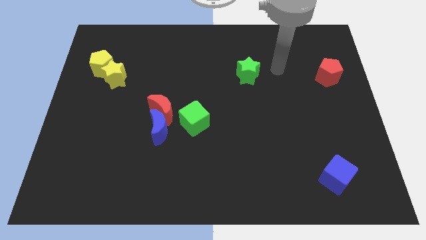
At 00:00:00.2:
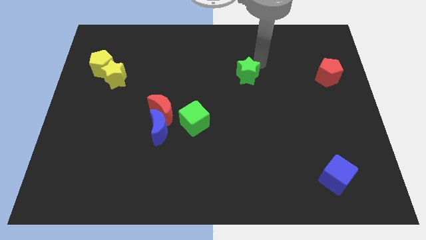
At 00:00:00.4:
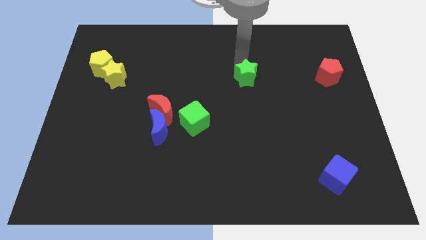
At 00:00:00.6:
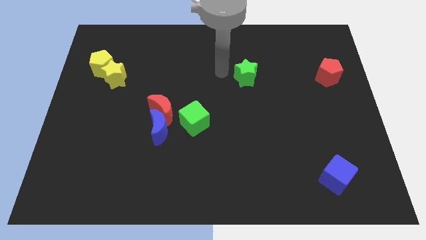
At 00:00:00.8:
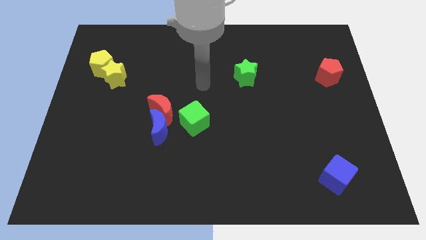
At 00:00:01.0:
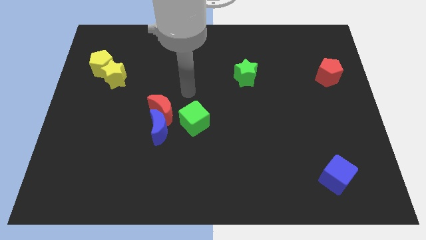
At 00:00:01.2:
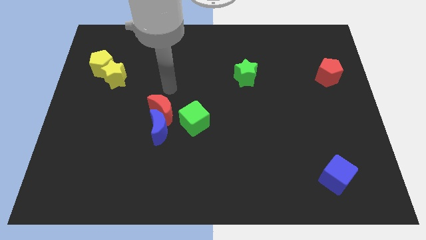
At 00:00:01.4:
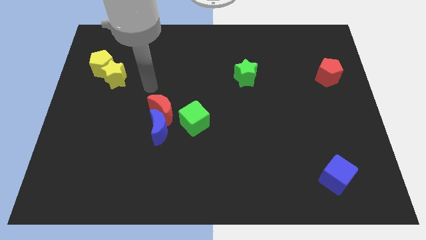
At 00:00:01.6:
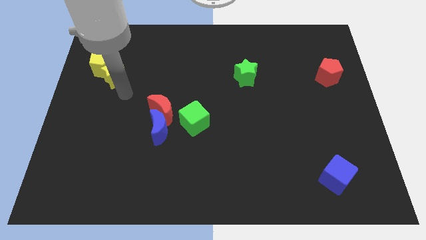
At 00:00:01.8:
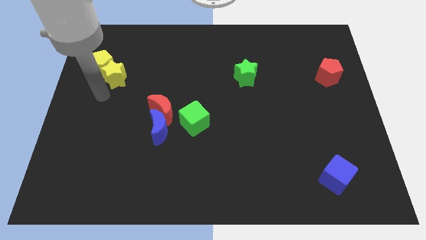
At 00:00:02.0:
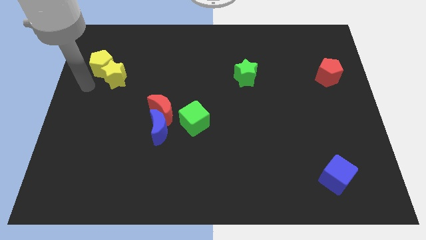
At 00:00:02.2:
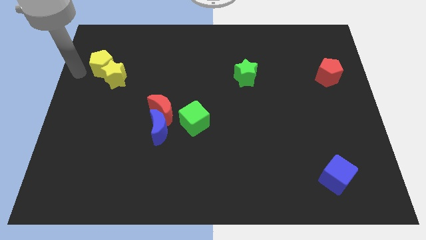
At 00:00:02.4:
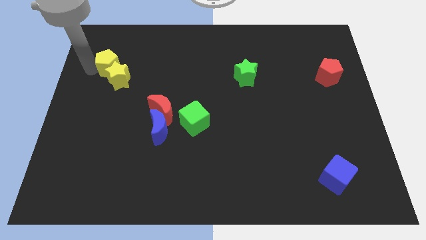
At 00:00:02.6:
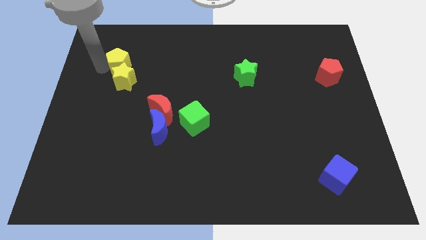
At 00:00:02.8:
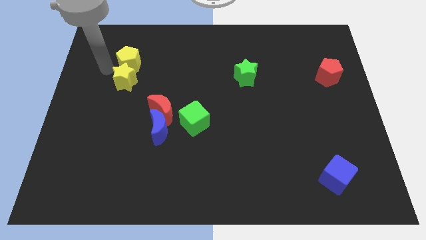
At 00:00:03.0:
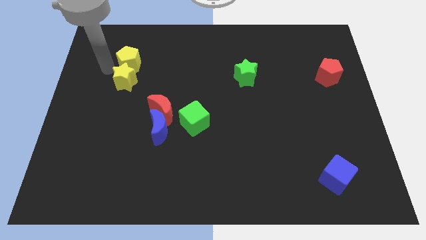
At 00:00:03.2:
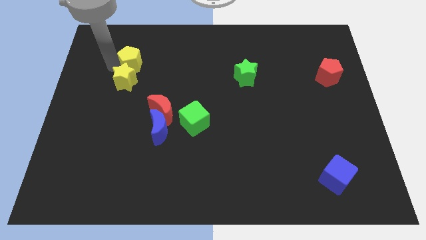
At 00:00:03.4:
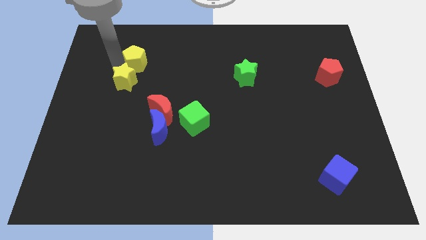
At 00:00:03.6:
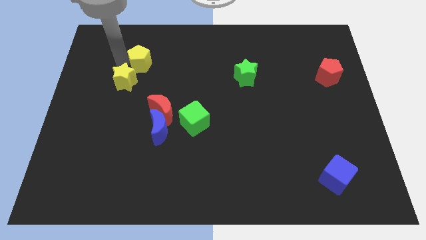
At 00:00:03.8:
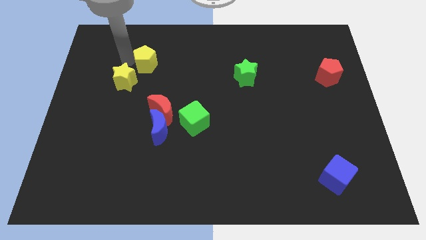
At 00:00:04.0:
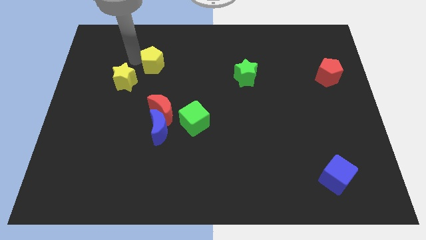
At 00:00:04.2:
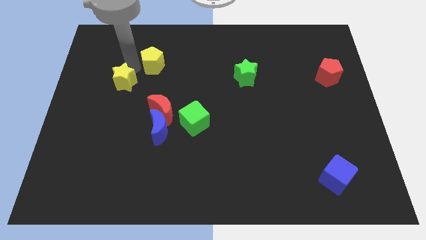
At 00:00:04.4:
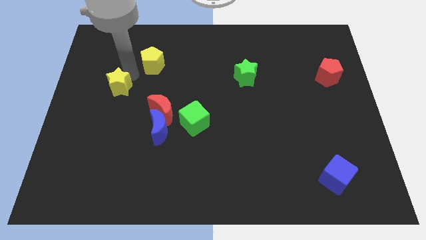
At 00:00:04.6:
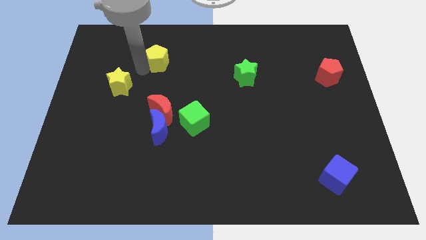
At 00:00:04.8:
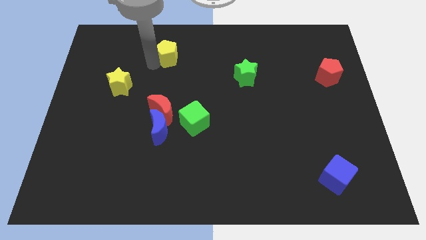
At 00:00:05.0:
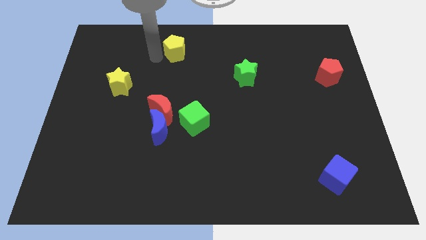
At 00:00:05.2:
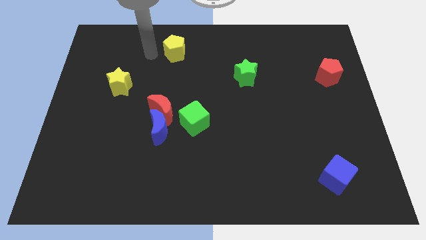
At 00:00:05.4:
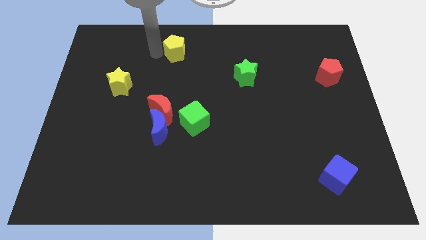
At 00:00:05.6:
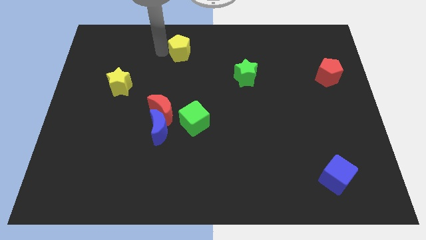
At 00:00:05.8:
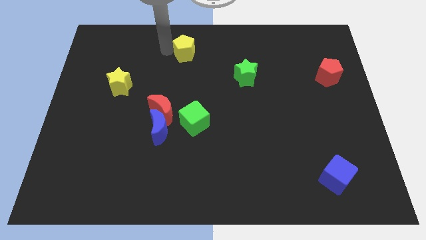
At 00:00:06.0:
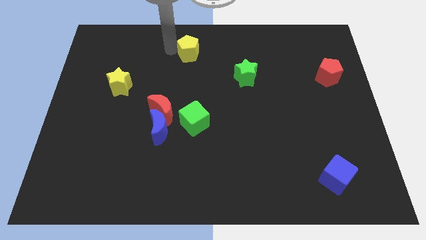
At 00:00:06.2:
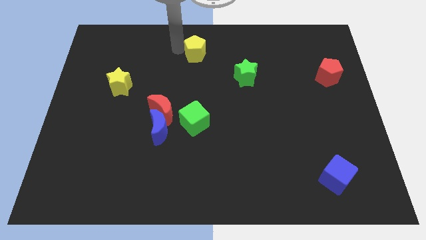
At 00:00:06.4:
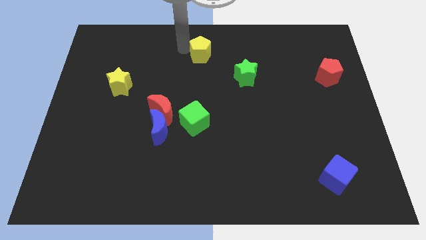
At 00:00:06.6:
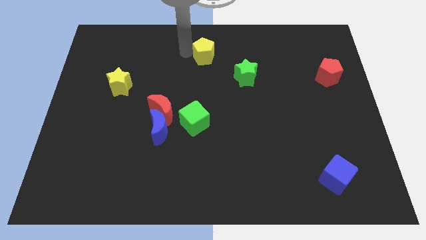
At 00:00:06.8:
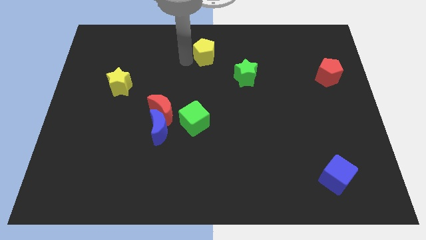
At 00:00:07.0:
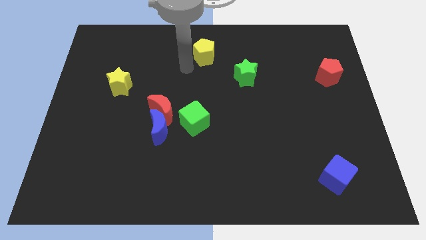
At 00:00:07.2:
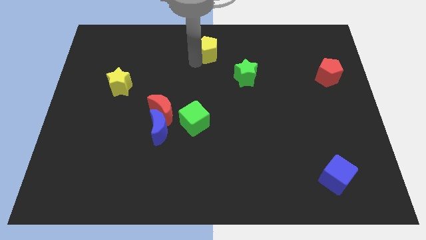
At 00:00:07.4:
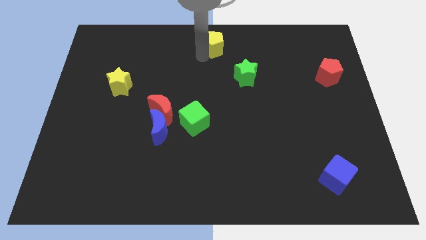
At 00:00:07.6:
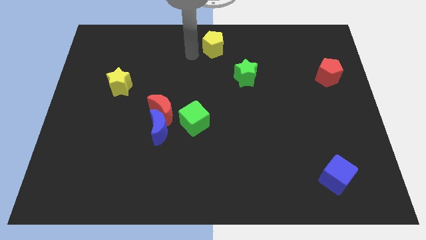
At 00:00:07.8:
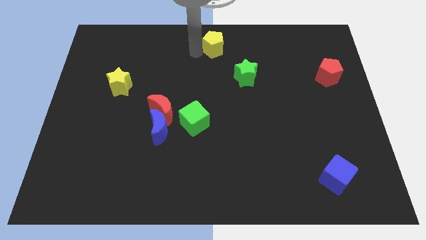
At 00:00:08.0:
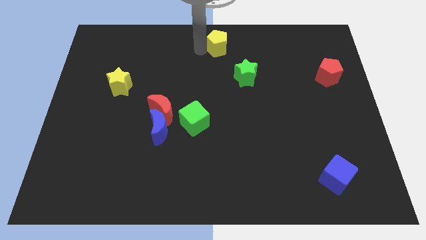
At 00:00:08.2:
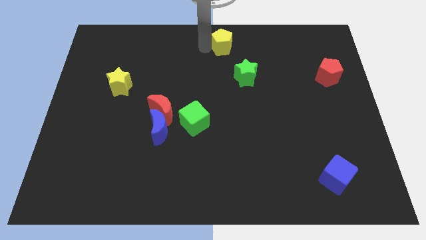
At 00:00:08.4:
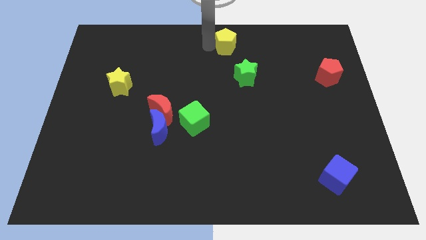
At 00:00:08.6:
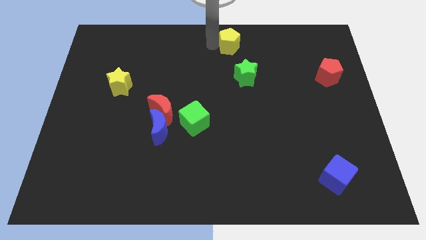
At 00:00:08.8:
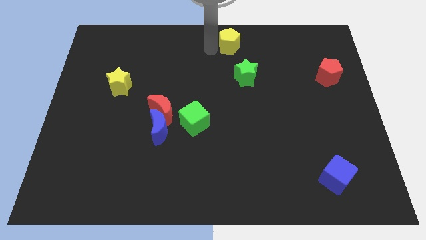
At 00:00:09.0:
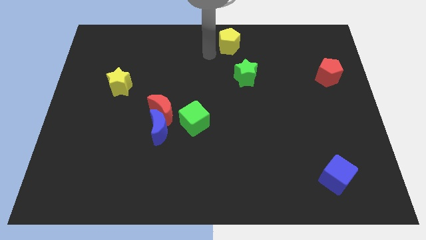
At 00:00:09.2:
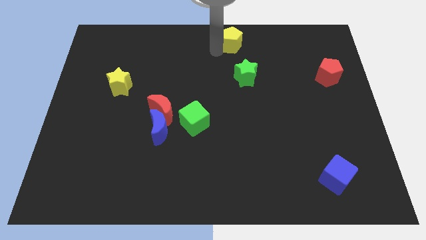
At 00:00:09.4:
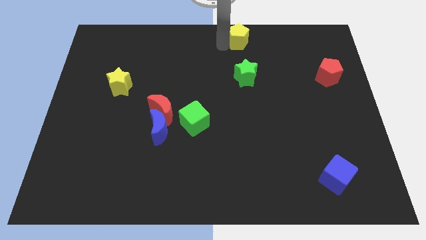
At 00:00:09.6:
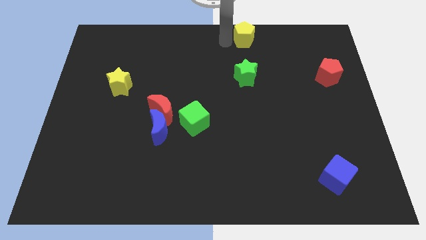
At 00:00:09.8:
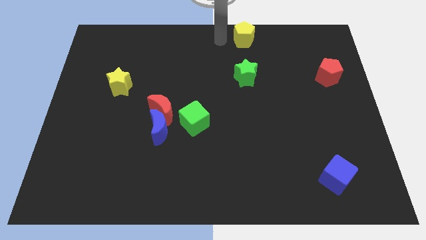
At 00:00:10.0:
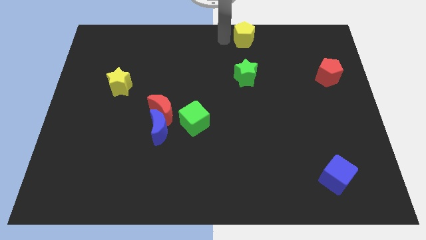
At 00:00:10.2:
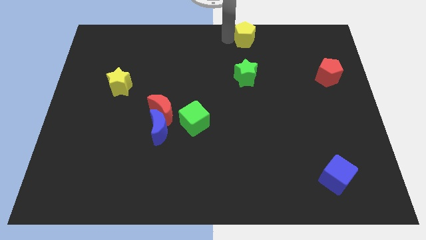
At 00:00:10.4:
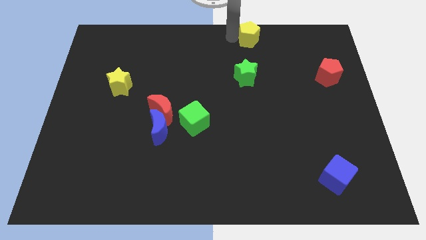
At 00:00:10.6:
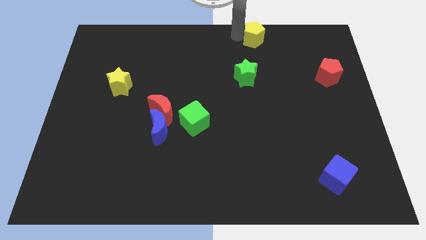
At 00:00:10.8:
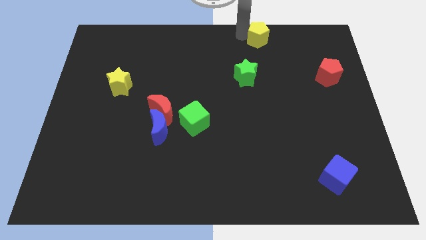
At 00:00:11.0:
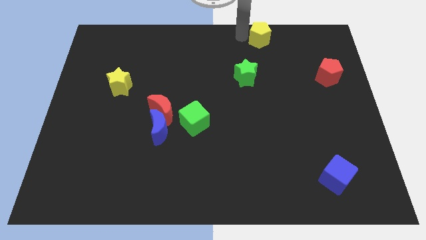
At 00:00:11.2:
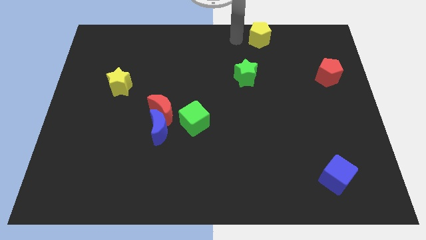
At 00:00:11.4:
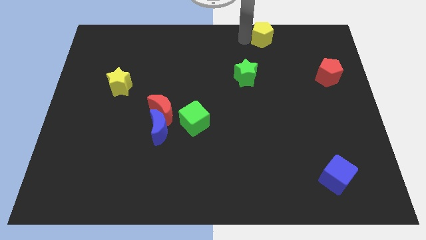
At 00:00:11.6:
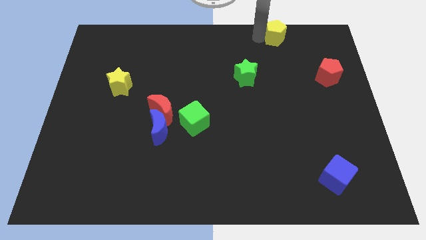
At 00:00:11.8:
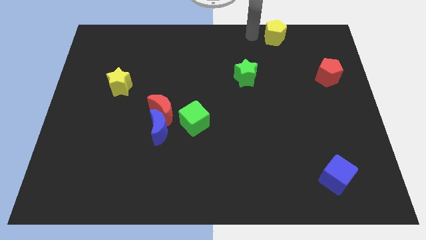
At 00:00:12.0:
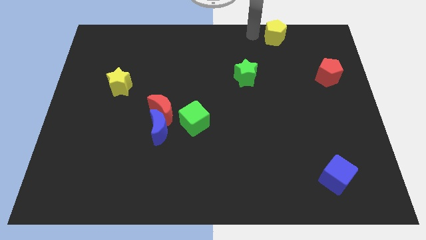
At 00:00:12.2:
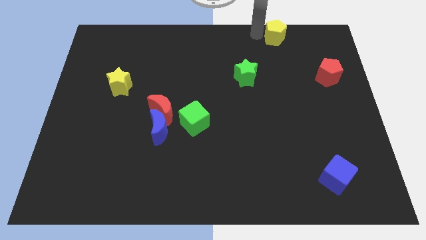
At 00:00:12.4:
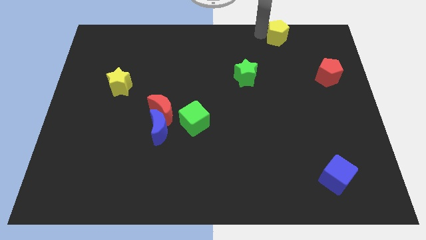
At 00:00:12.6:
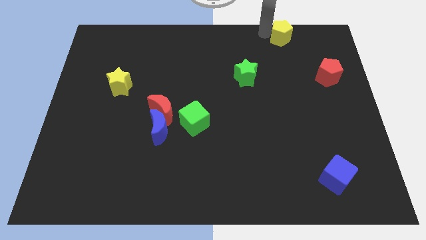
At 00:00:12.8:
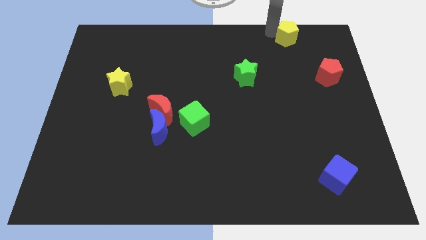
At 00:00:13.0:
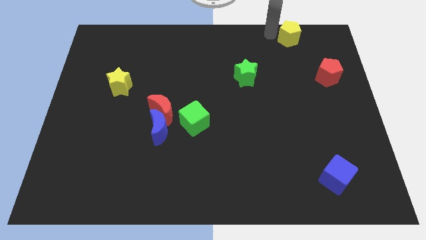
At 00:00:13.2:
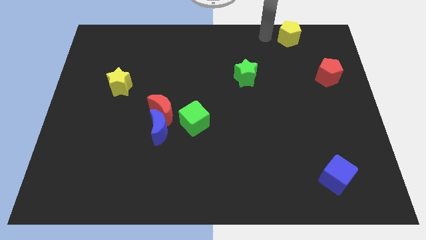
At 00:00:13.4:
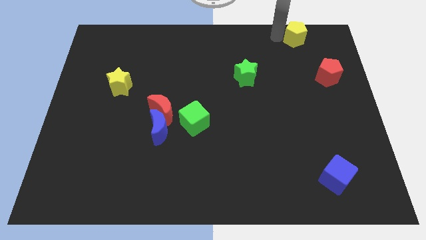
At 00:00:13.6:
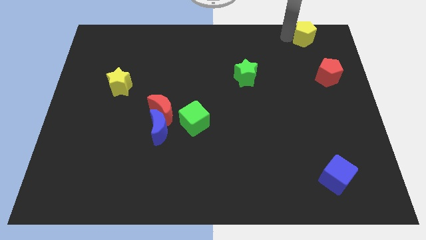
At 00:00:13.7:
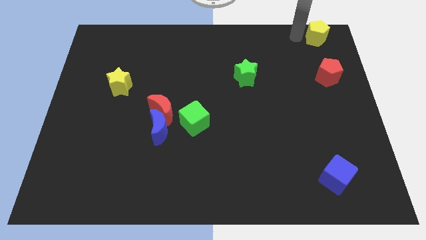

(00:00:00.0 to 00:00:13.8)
slide the yellow pentagon to the upper right corner
